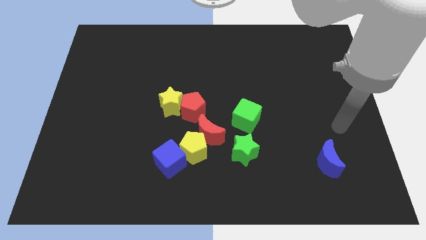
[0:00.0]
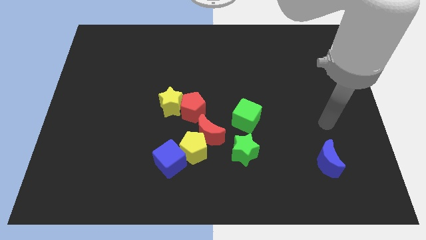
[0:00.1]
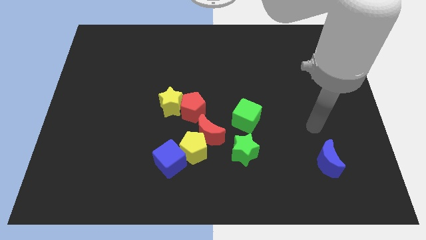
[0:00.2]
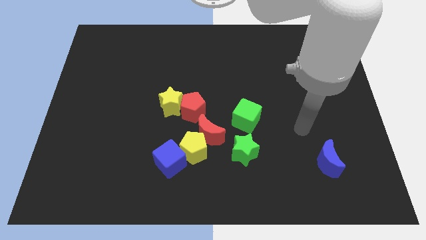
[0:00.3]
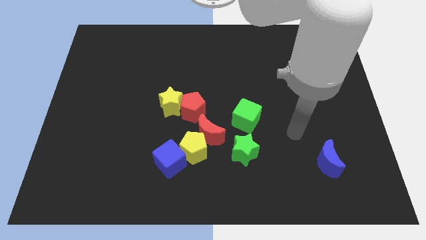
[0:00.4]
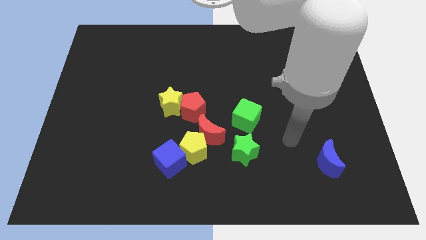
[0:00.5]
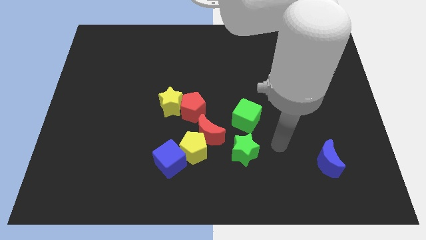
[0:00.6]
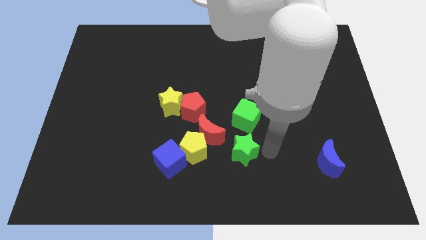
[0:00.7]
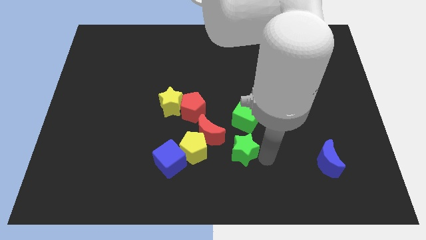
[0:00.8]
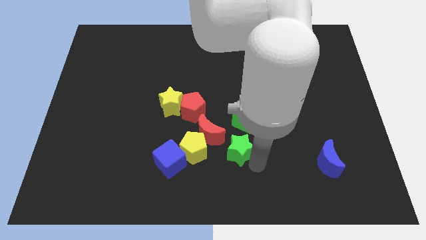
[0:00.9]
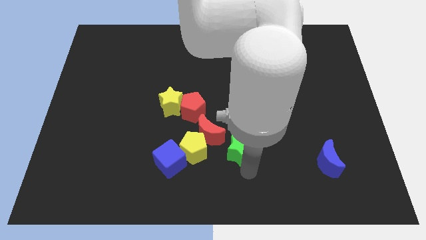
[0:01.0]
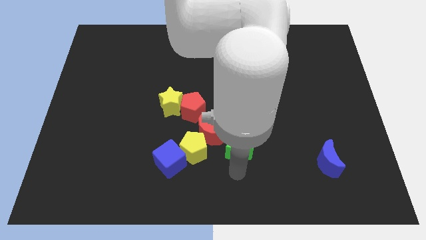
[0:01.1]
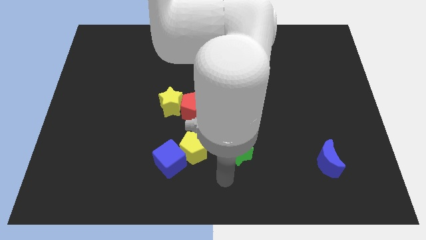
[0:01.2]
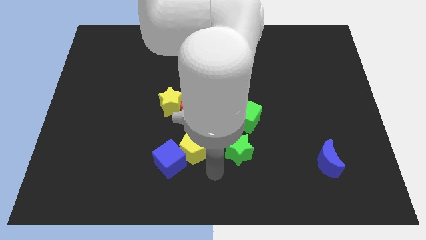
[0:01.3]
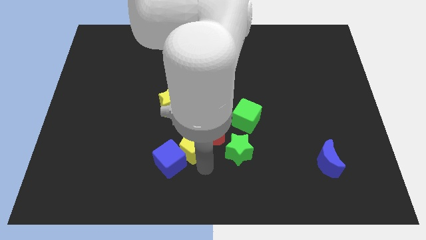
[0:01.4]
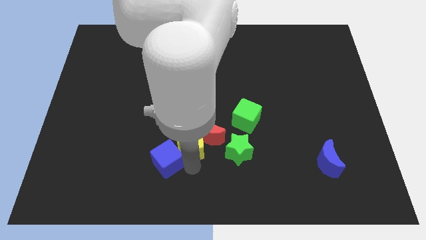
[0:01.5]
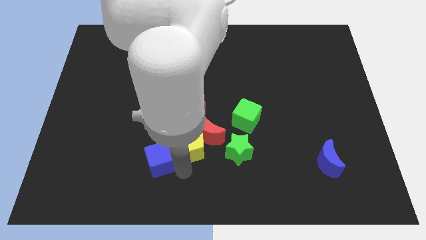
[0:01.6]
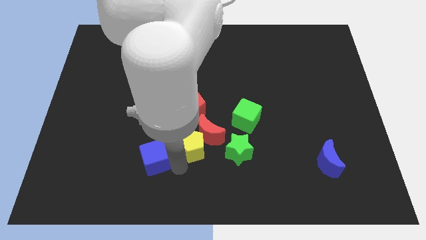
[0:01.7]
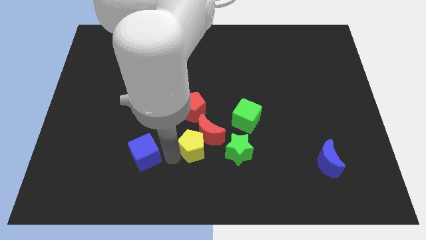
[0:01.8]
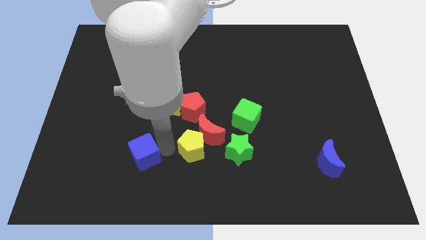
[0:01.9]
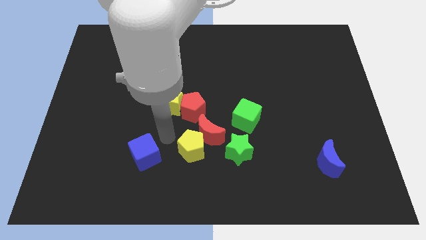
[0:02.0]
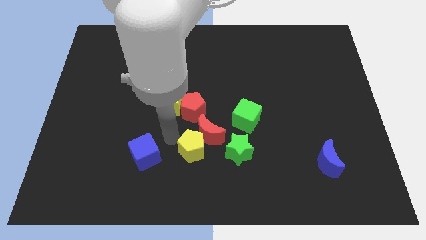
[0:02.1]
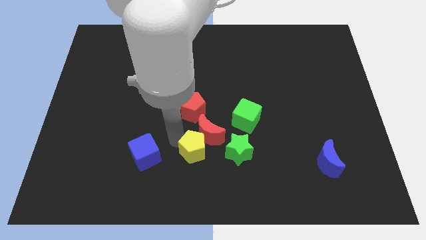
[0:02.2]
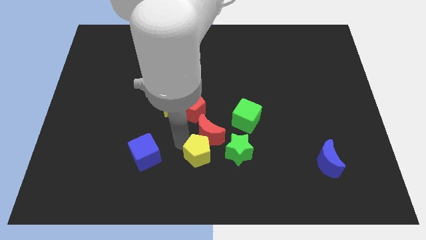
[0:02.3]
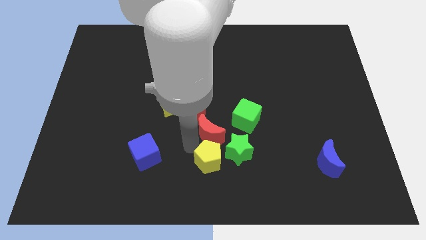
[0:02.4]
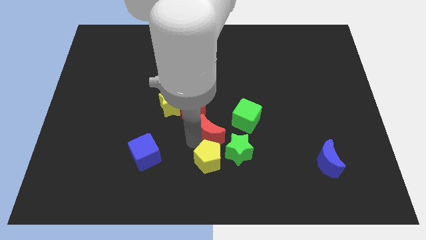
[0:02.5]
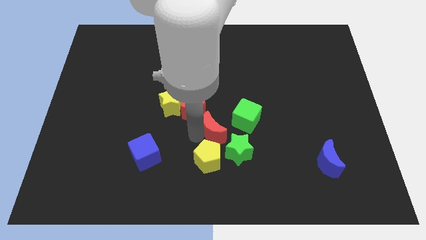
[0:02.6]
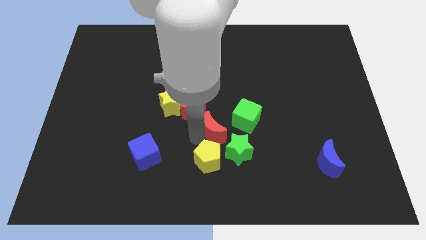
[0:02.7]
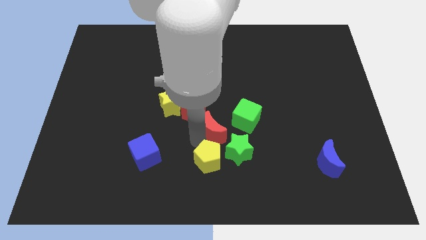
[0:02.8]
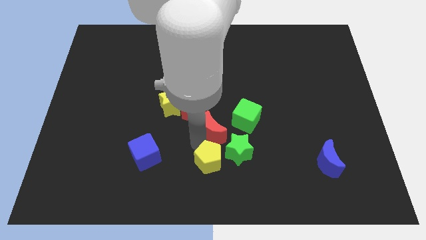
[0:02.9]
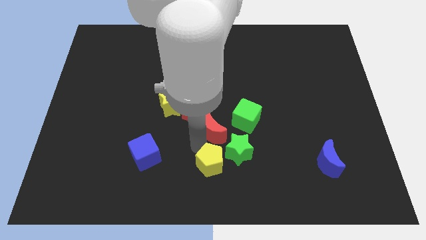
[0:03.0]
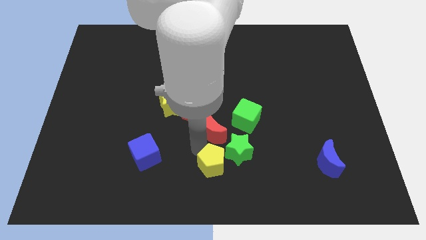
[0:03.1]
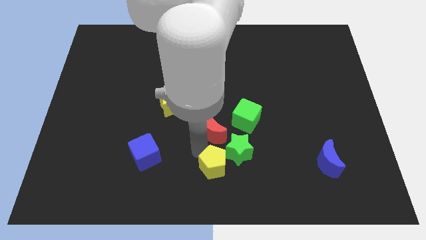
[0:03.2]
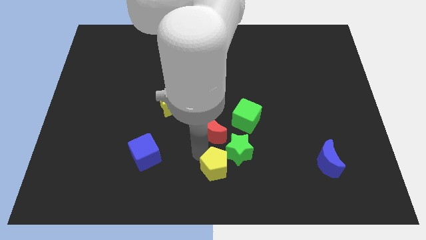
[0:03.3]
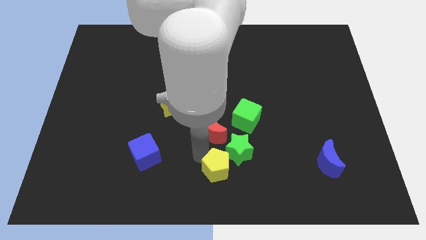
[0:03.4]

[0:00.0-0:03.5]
move the yellow pentagon away from the red moon and blue cube

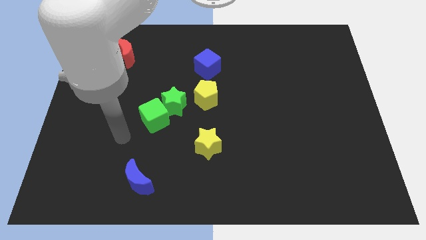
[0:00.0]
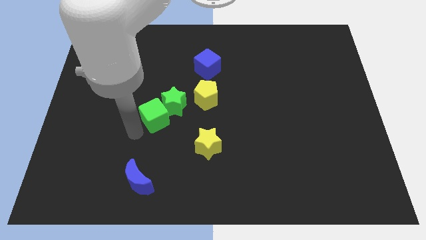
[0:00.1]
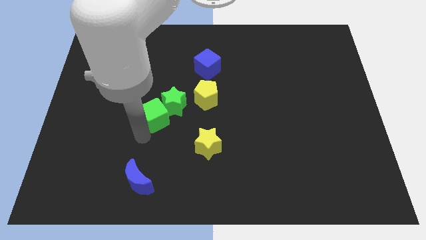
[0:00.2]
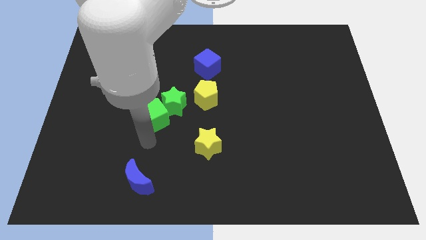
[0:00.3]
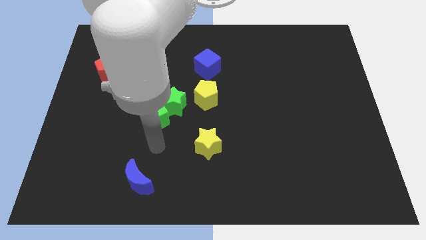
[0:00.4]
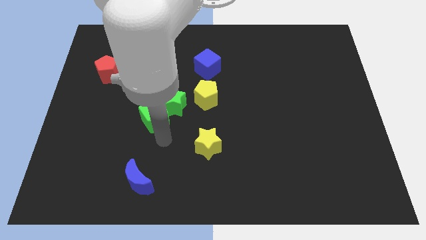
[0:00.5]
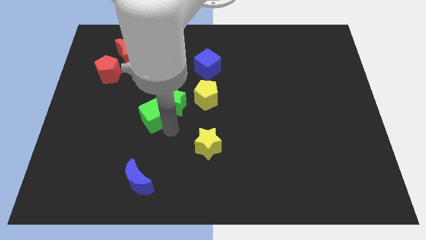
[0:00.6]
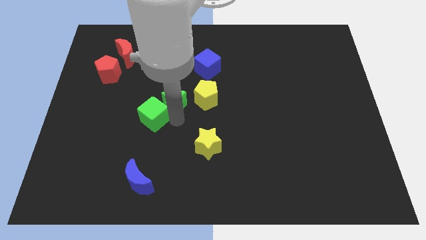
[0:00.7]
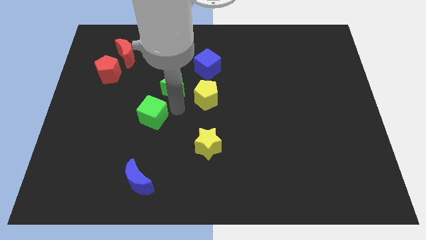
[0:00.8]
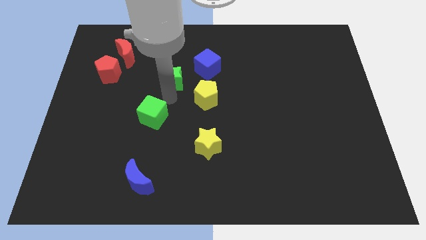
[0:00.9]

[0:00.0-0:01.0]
move the green cube away from the green star

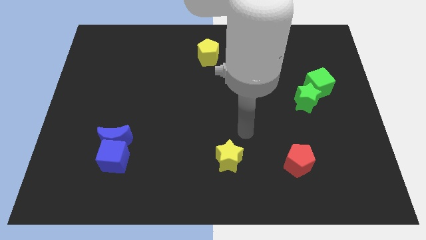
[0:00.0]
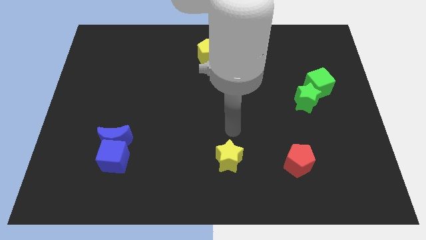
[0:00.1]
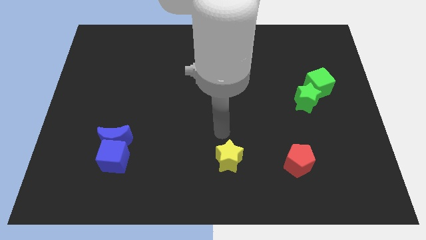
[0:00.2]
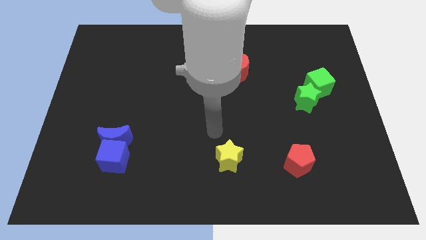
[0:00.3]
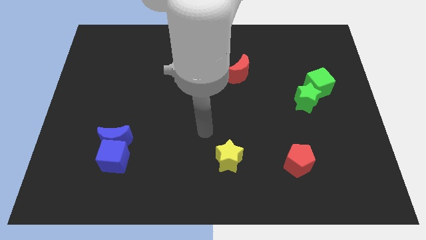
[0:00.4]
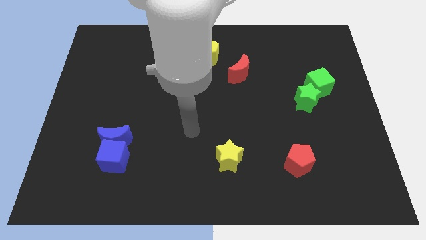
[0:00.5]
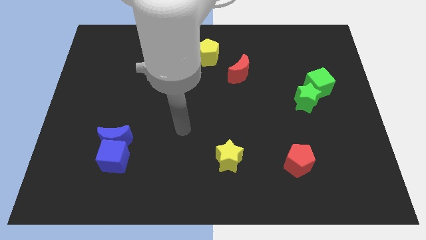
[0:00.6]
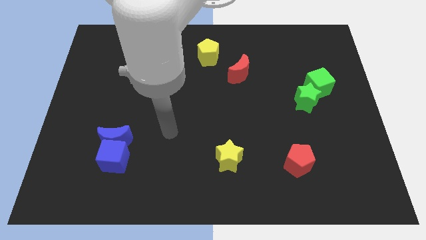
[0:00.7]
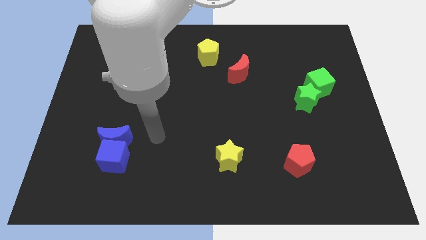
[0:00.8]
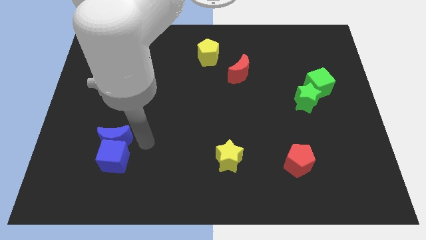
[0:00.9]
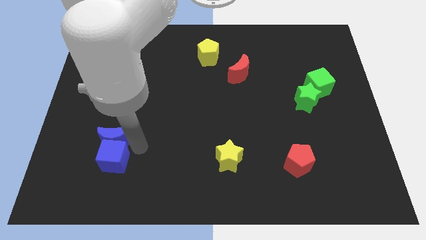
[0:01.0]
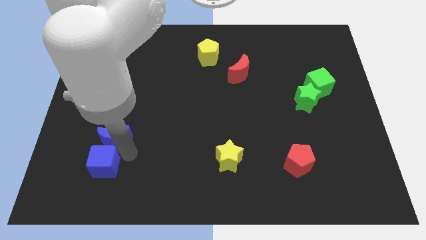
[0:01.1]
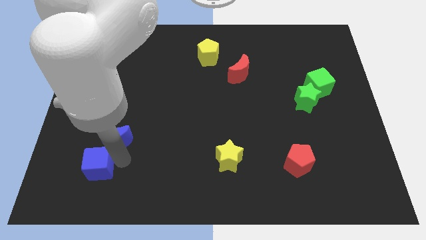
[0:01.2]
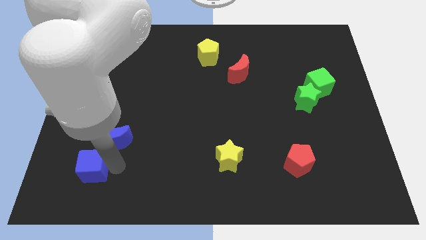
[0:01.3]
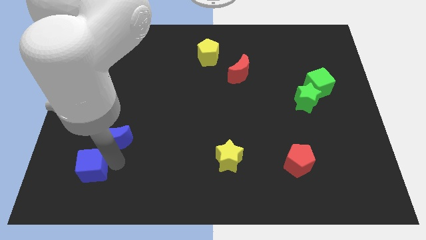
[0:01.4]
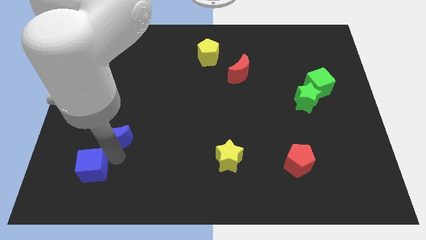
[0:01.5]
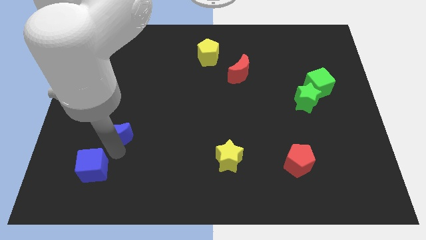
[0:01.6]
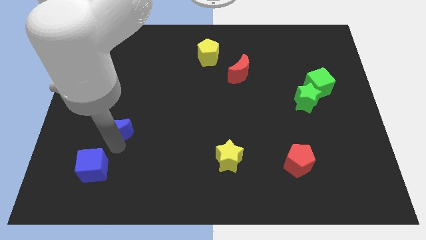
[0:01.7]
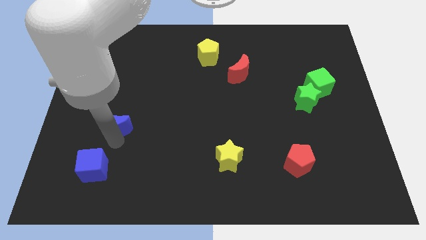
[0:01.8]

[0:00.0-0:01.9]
separate the blue moon from the blue cube

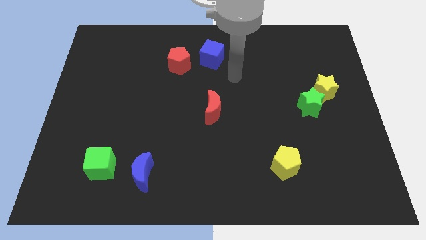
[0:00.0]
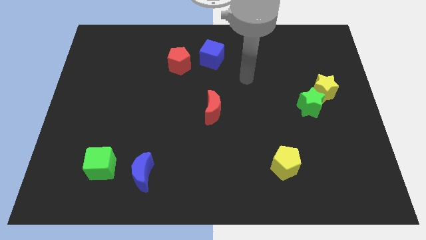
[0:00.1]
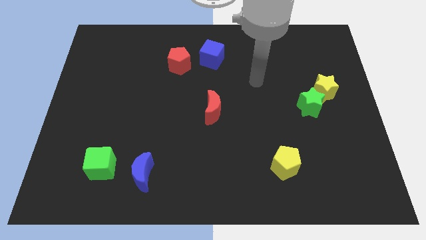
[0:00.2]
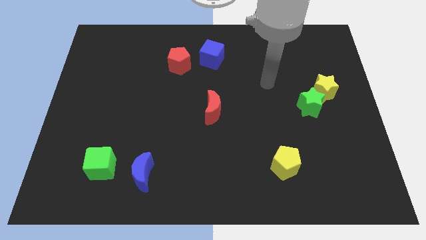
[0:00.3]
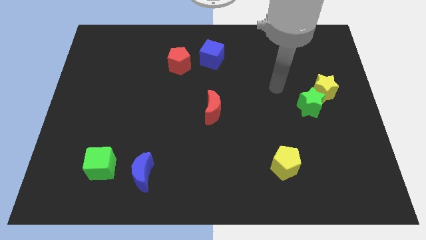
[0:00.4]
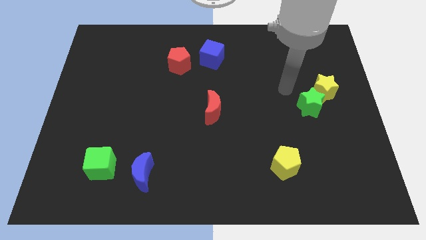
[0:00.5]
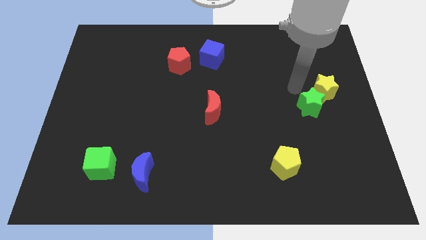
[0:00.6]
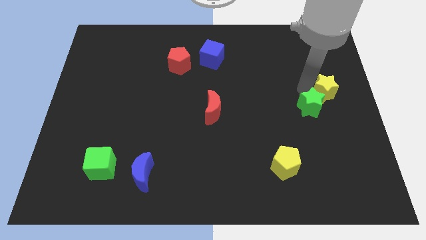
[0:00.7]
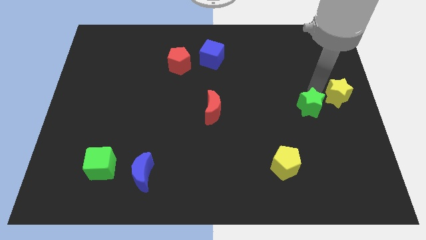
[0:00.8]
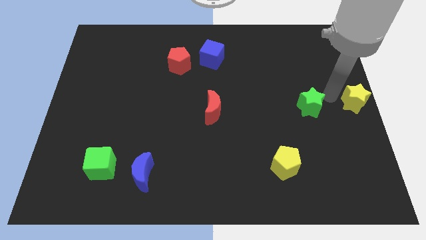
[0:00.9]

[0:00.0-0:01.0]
pull the green star apart from the yellow star

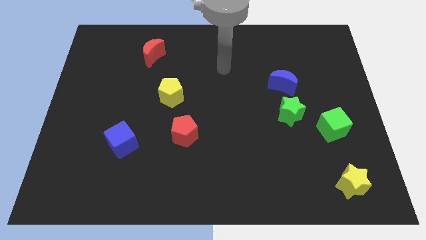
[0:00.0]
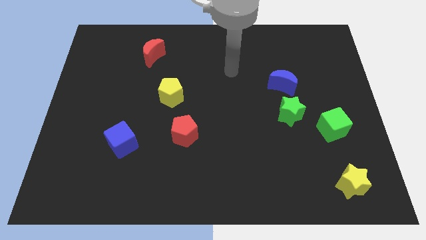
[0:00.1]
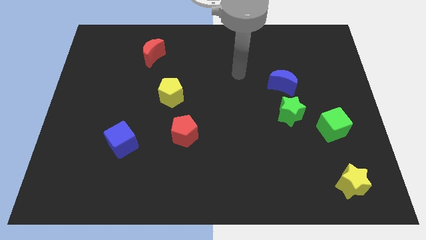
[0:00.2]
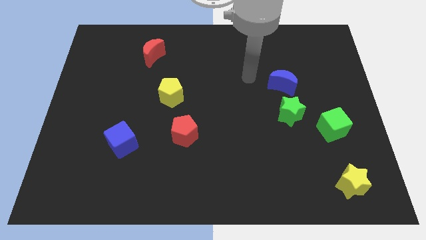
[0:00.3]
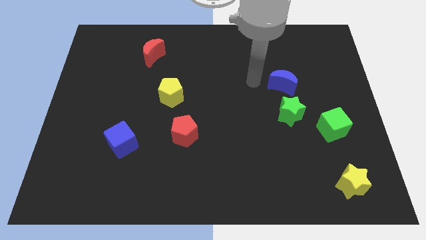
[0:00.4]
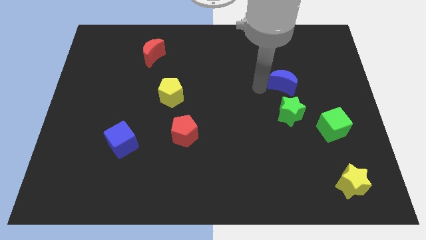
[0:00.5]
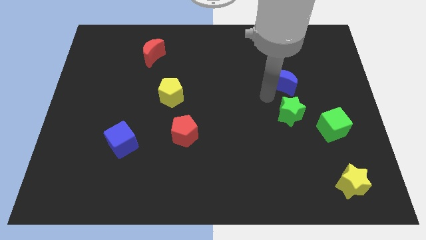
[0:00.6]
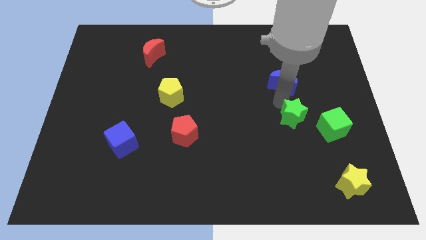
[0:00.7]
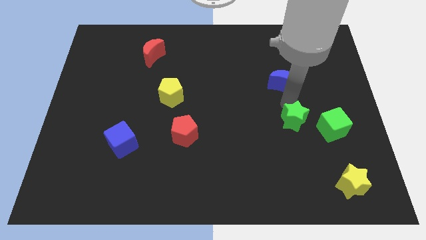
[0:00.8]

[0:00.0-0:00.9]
separate the blue moon from the green star

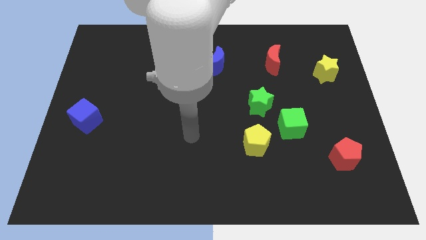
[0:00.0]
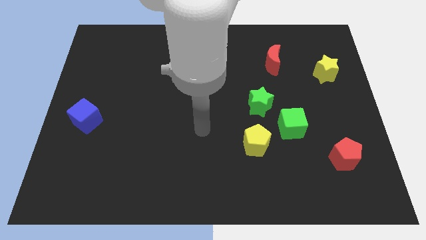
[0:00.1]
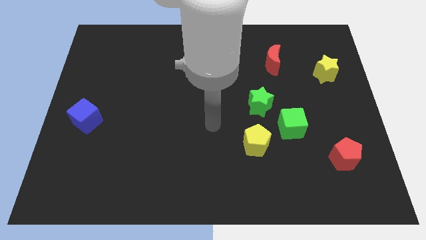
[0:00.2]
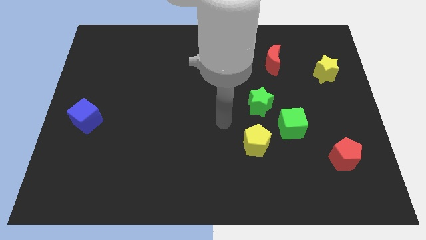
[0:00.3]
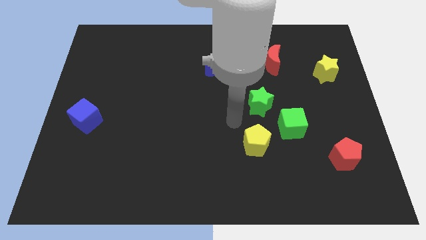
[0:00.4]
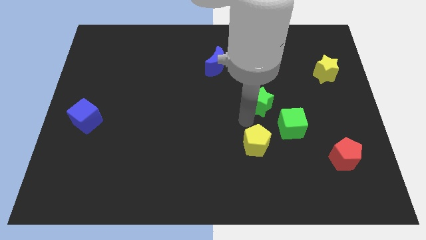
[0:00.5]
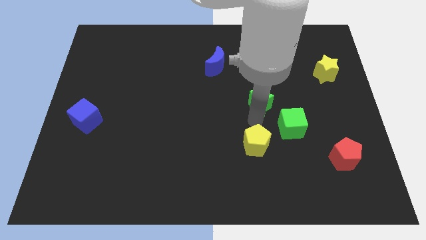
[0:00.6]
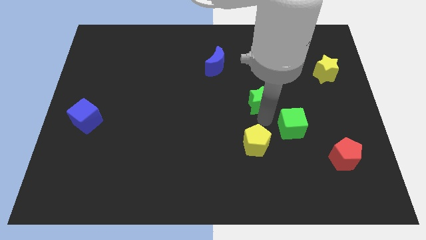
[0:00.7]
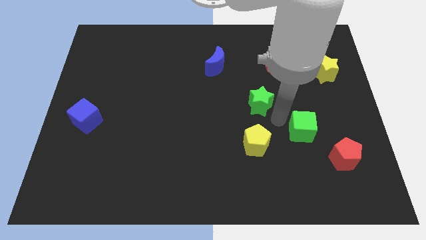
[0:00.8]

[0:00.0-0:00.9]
move the green star away from the green cube

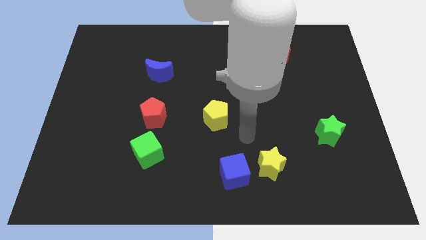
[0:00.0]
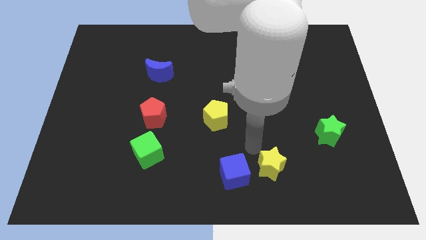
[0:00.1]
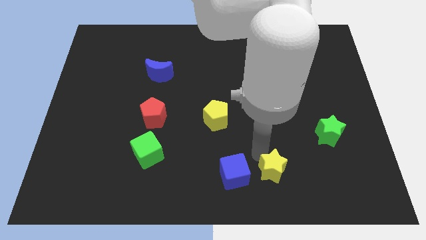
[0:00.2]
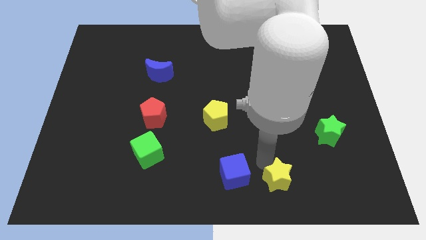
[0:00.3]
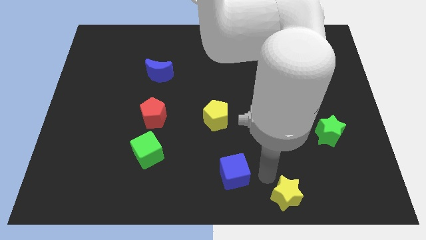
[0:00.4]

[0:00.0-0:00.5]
move the blue cube away from the yellow star
